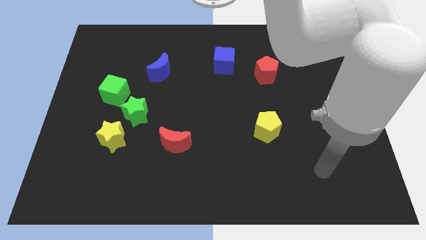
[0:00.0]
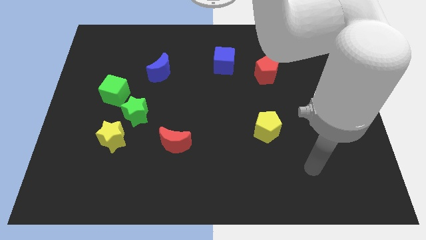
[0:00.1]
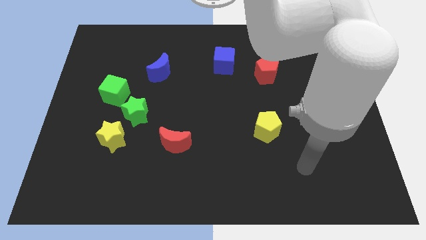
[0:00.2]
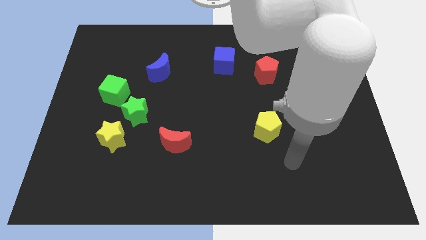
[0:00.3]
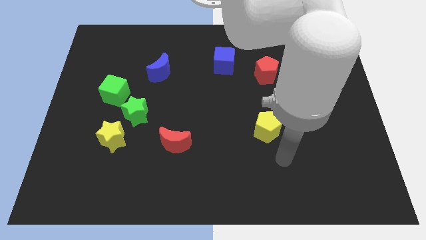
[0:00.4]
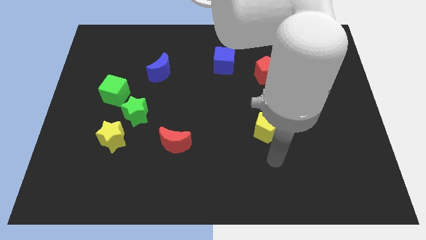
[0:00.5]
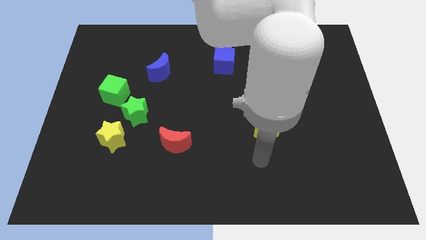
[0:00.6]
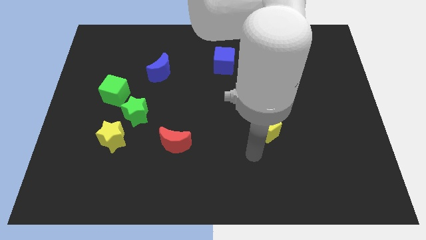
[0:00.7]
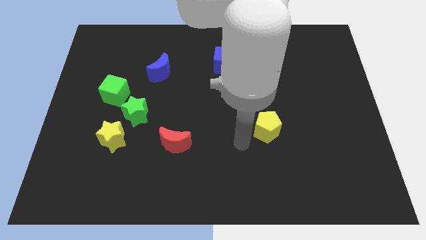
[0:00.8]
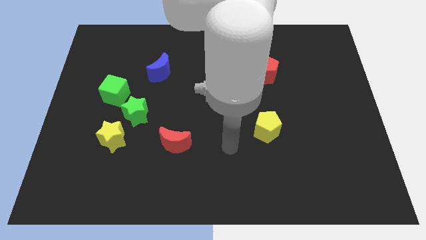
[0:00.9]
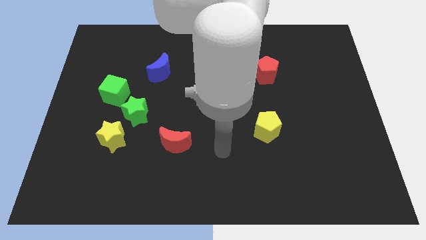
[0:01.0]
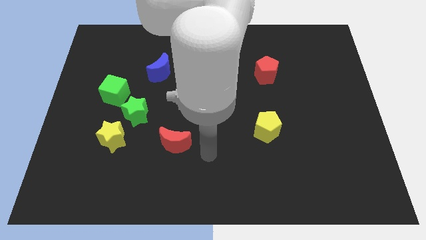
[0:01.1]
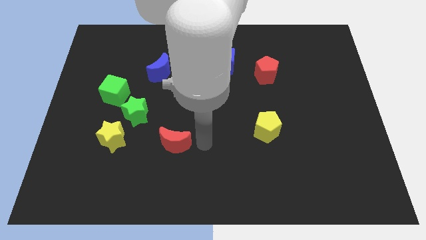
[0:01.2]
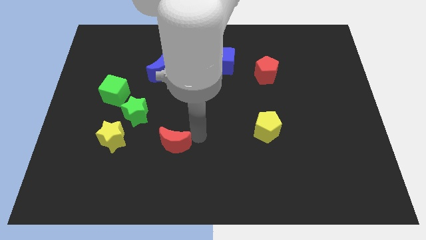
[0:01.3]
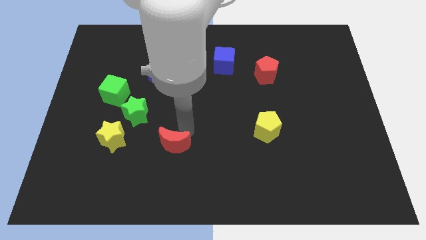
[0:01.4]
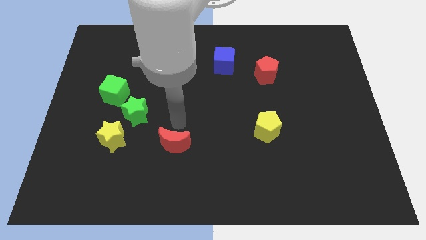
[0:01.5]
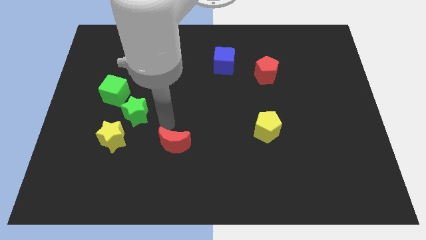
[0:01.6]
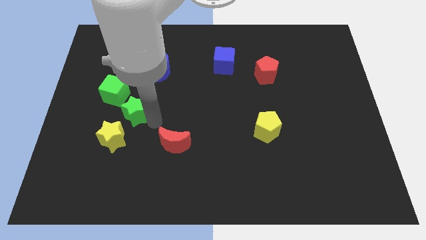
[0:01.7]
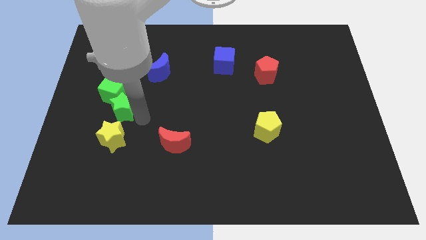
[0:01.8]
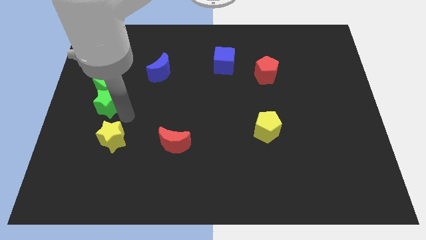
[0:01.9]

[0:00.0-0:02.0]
separate the yellow star from the green star

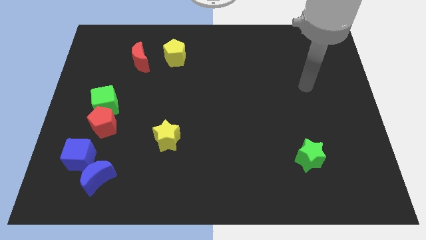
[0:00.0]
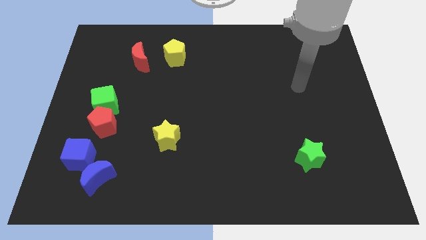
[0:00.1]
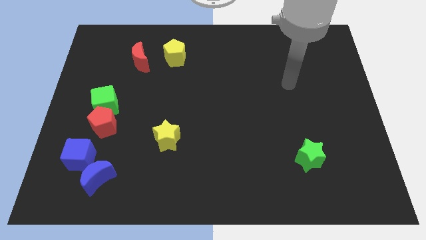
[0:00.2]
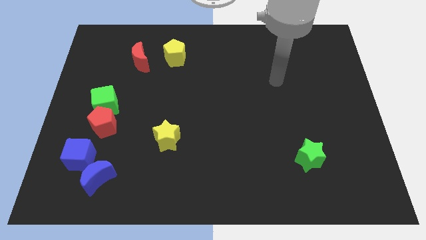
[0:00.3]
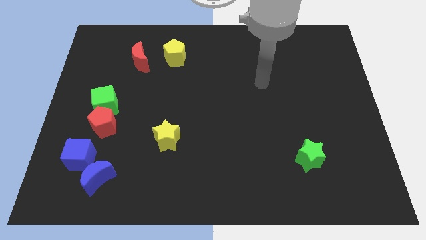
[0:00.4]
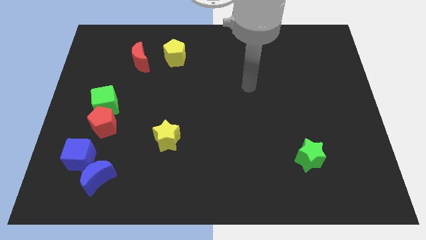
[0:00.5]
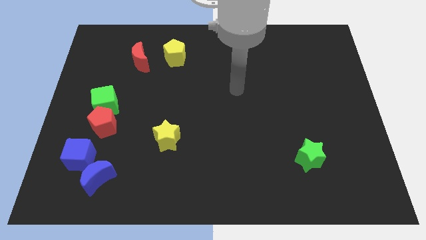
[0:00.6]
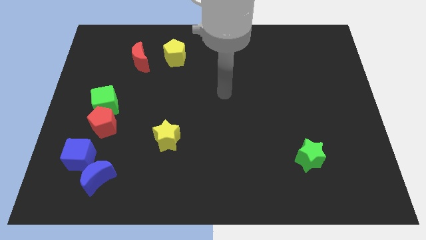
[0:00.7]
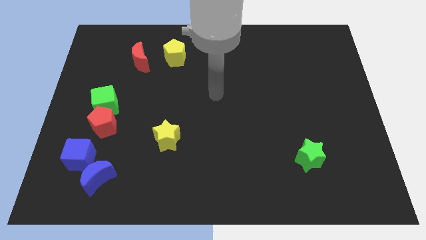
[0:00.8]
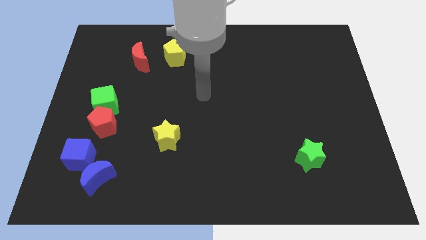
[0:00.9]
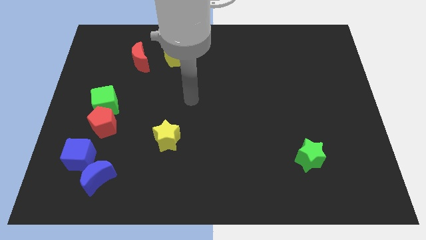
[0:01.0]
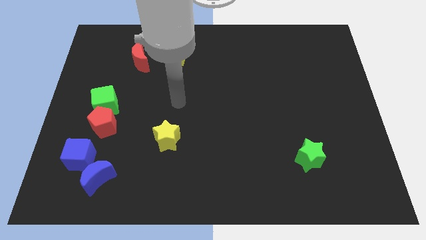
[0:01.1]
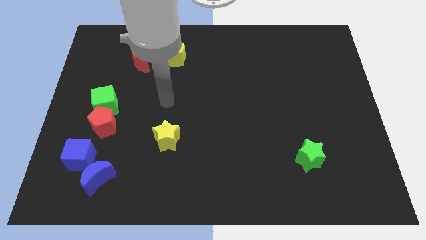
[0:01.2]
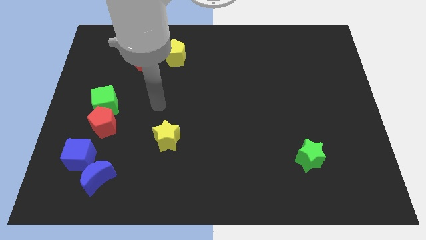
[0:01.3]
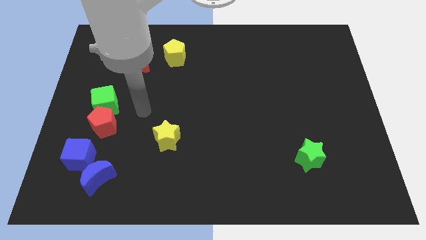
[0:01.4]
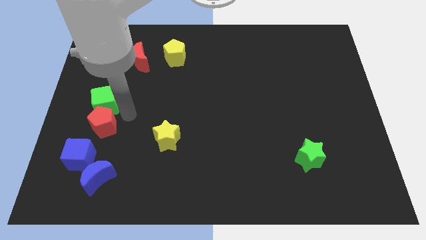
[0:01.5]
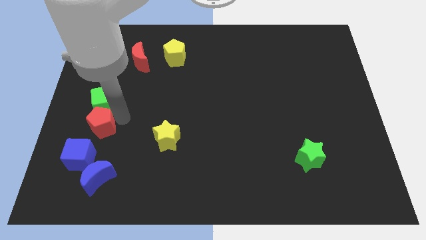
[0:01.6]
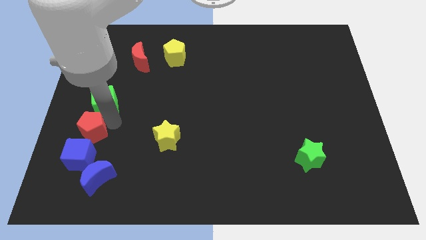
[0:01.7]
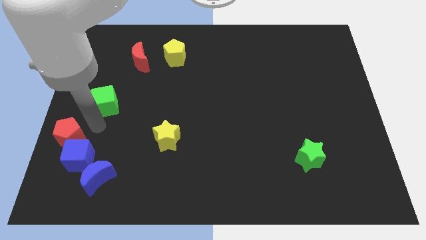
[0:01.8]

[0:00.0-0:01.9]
pull the green cube apart from the red pentagon

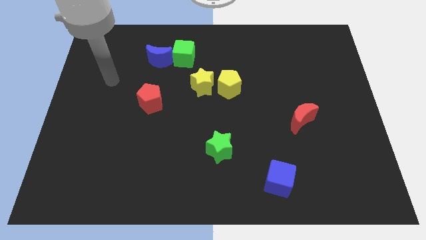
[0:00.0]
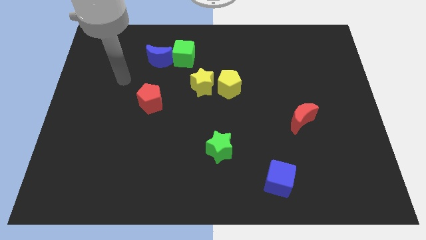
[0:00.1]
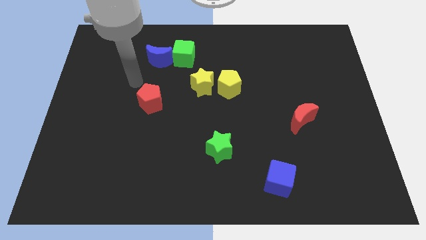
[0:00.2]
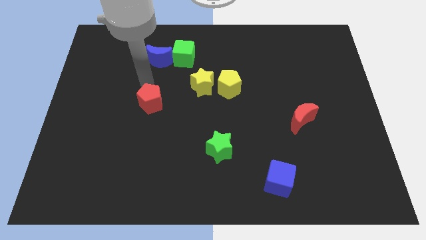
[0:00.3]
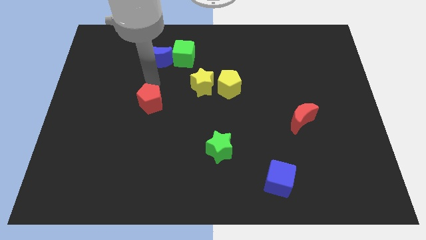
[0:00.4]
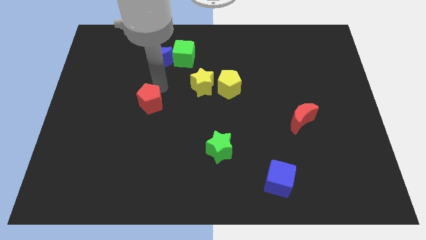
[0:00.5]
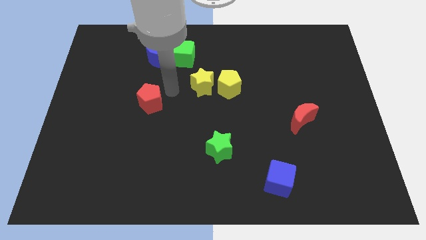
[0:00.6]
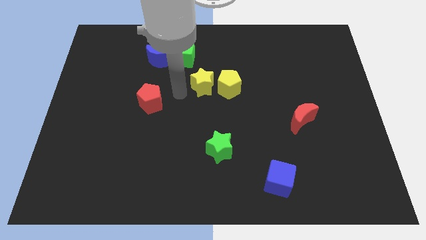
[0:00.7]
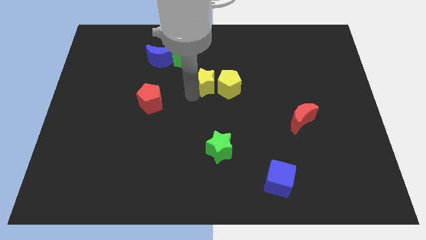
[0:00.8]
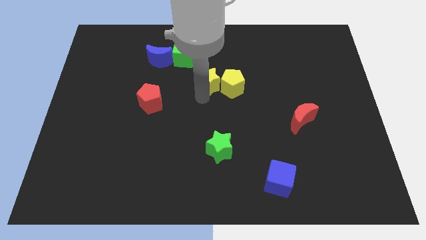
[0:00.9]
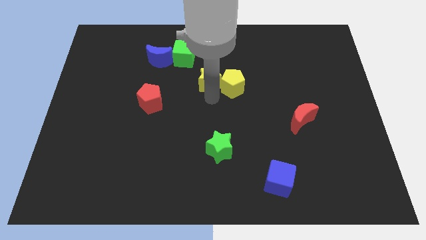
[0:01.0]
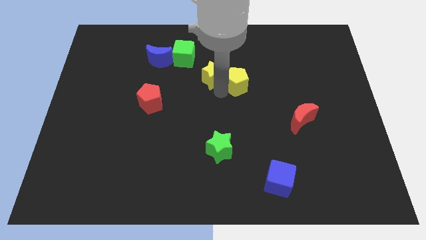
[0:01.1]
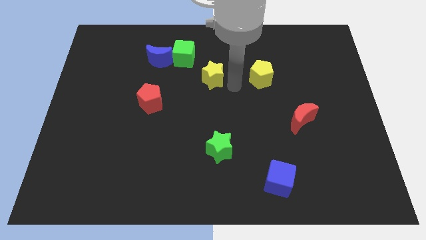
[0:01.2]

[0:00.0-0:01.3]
pull the yellow star apart from the yellow pentagon

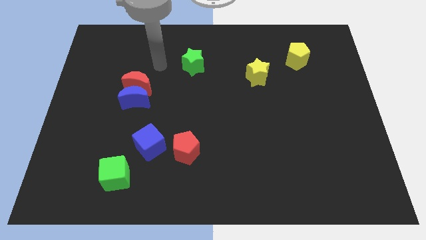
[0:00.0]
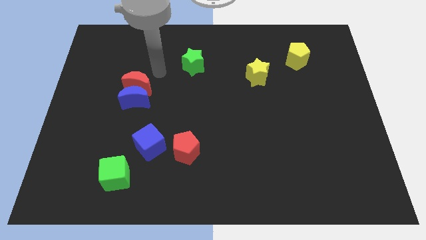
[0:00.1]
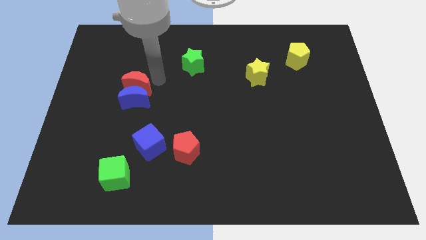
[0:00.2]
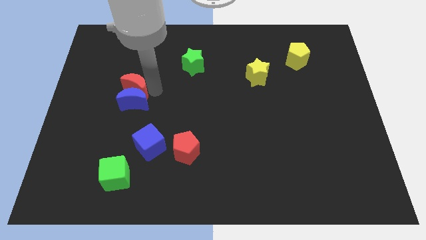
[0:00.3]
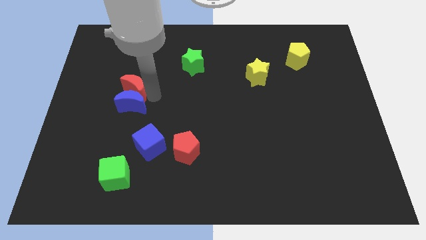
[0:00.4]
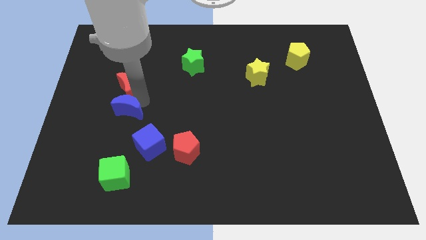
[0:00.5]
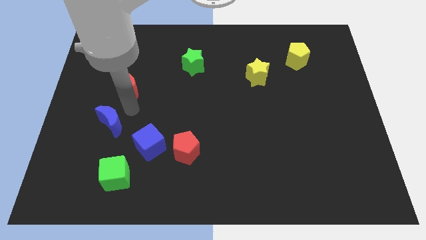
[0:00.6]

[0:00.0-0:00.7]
pull the red moon apart from the blue moon

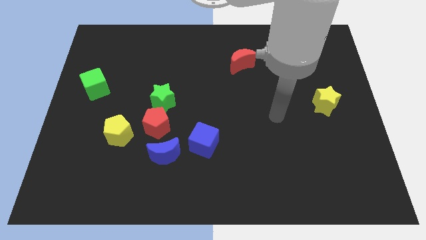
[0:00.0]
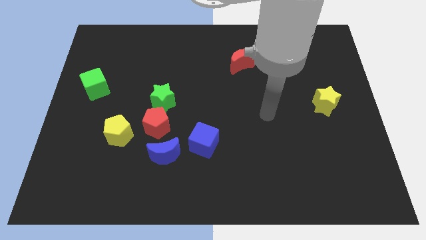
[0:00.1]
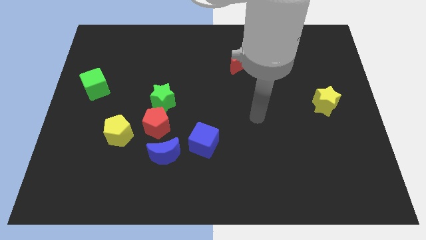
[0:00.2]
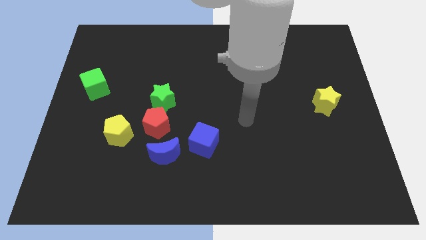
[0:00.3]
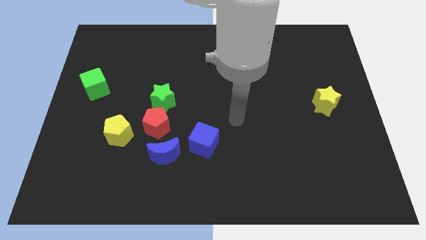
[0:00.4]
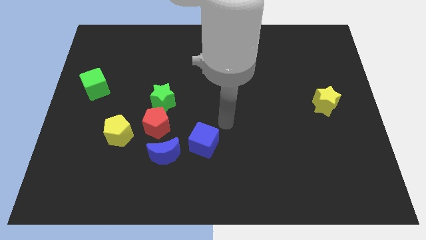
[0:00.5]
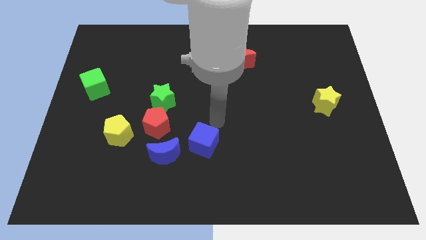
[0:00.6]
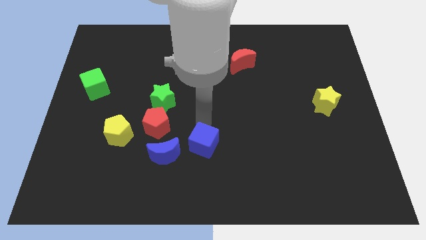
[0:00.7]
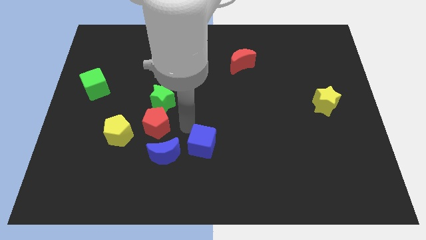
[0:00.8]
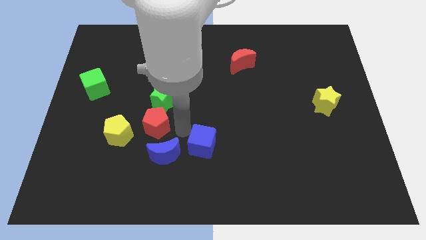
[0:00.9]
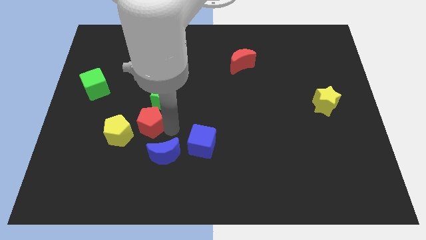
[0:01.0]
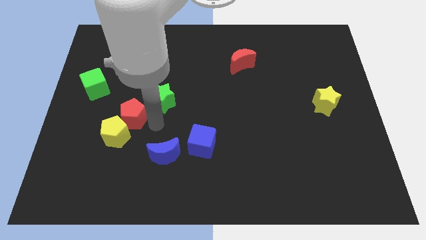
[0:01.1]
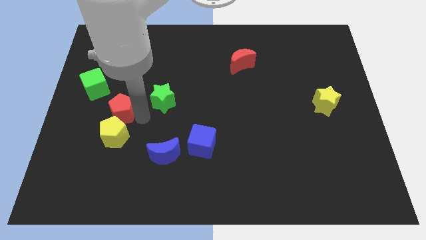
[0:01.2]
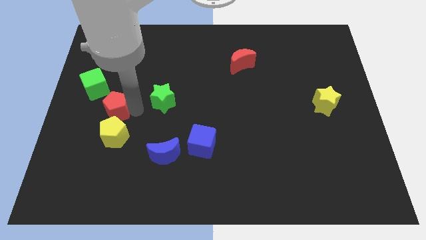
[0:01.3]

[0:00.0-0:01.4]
separate the green star from the red pentagon

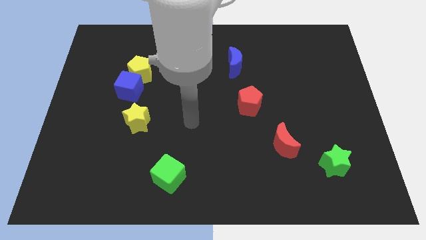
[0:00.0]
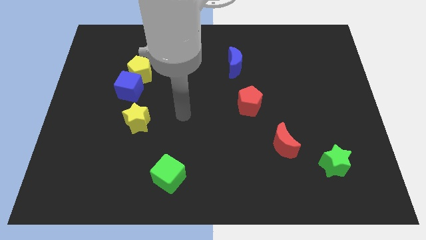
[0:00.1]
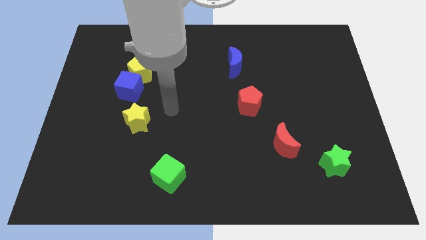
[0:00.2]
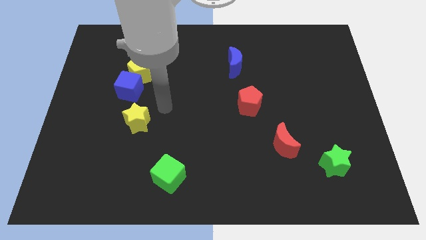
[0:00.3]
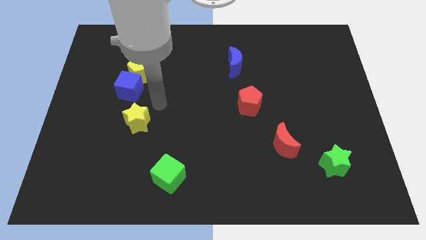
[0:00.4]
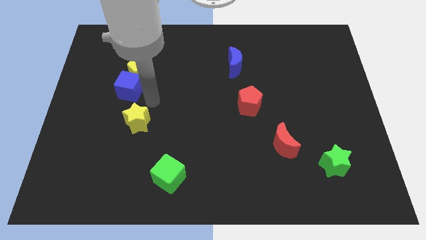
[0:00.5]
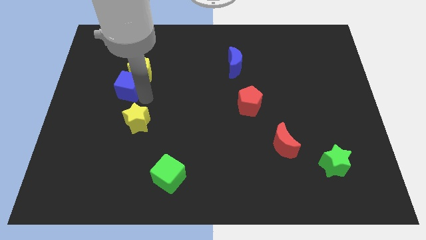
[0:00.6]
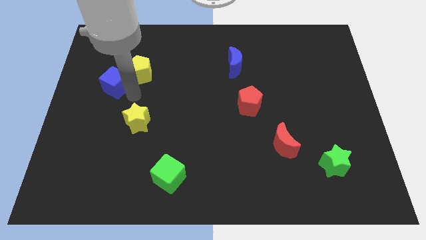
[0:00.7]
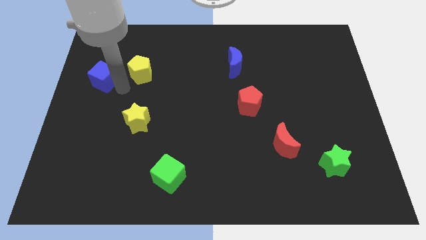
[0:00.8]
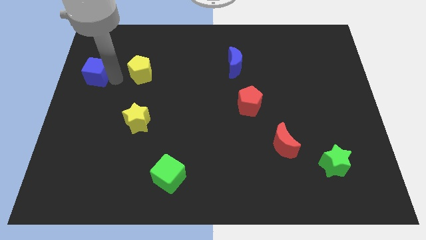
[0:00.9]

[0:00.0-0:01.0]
move the yellow pentagon away from the blue cube

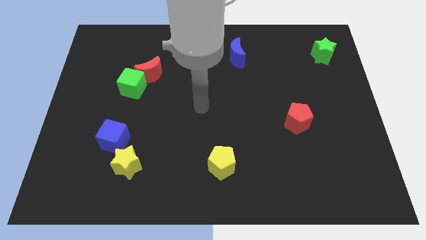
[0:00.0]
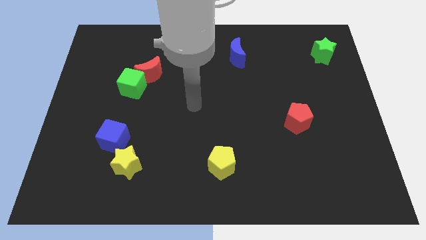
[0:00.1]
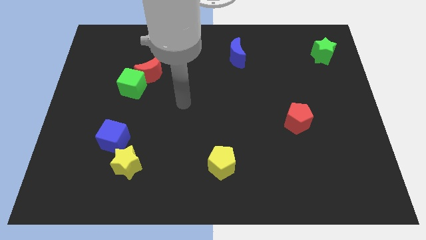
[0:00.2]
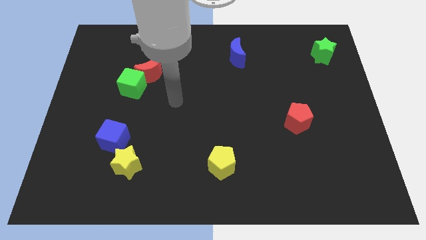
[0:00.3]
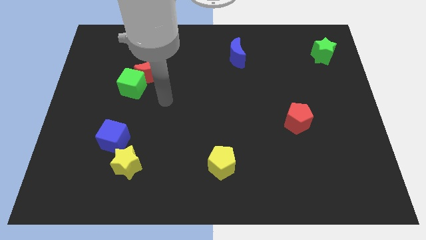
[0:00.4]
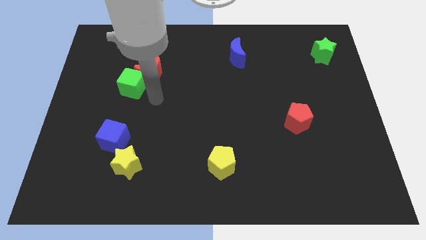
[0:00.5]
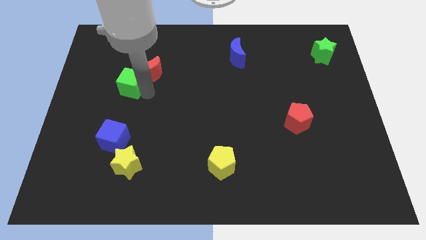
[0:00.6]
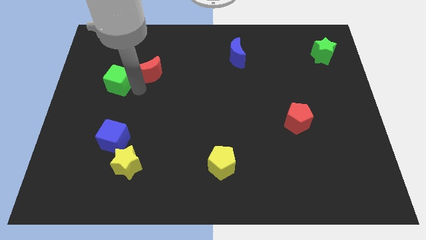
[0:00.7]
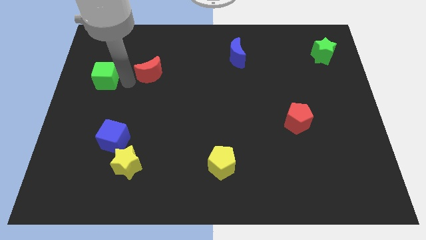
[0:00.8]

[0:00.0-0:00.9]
separate the red moon from the green cube
